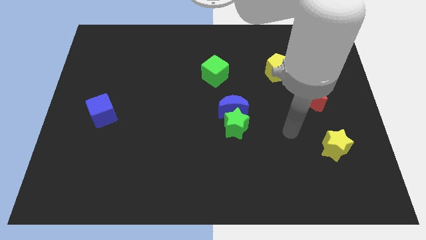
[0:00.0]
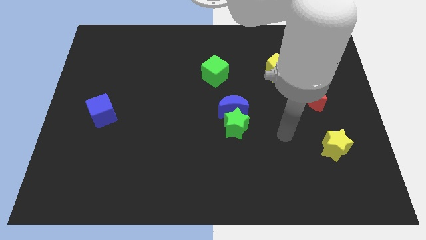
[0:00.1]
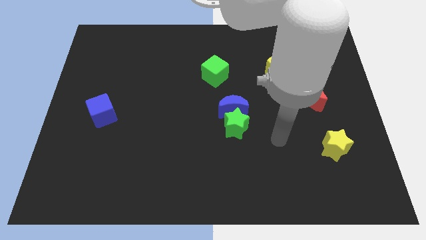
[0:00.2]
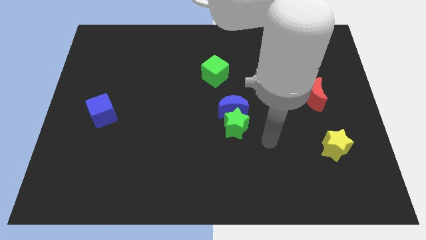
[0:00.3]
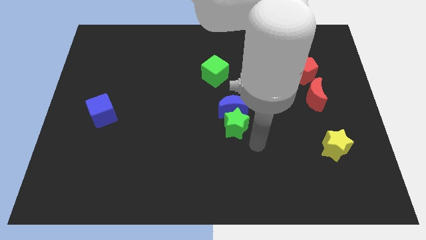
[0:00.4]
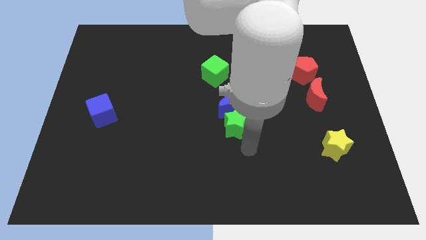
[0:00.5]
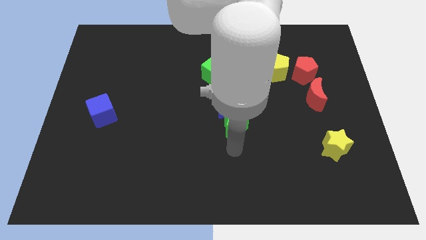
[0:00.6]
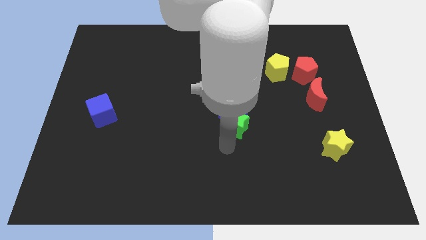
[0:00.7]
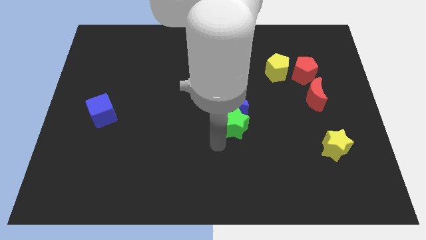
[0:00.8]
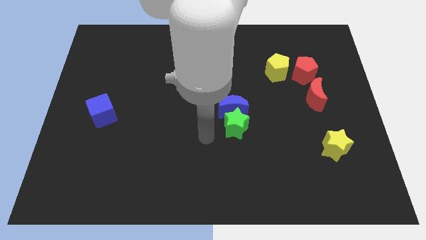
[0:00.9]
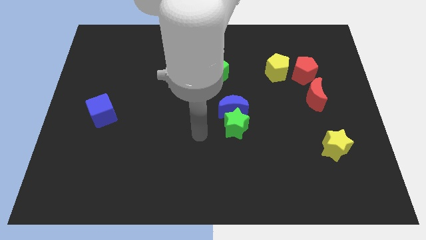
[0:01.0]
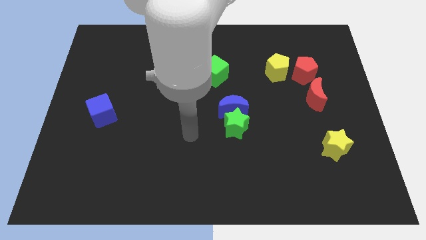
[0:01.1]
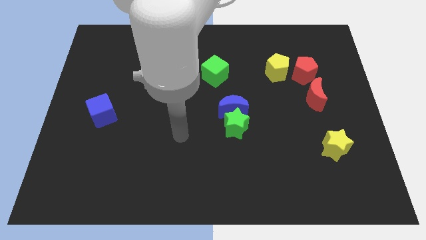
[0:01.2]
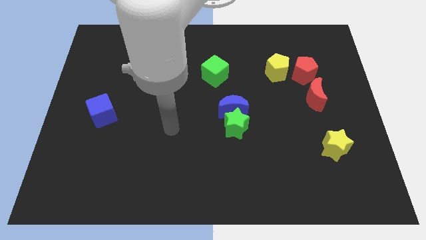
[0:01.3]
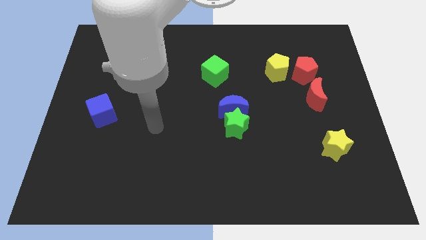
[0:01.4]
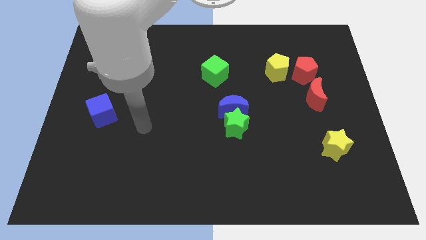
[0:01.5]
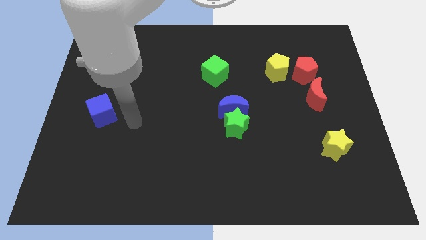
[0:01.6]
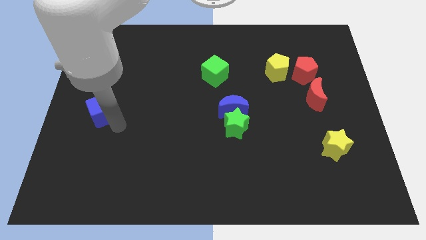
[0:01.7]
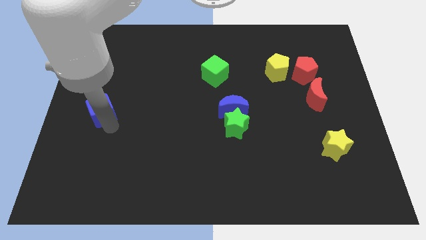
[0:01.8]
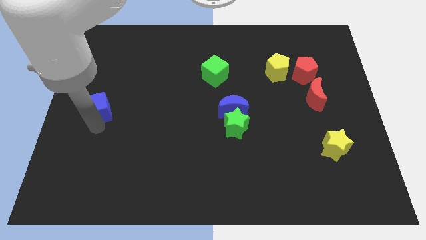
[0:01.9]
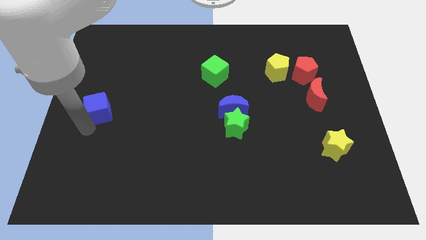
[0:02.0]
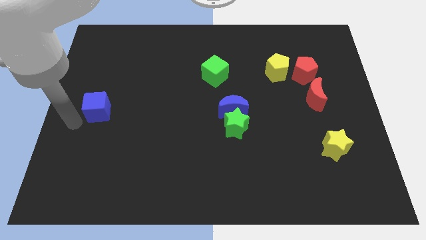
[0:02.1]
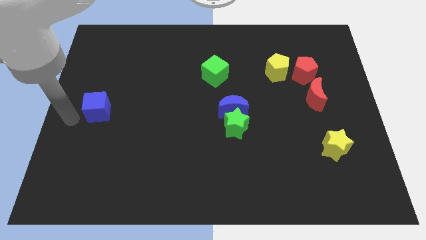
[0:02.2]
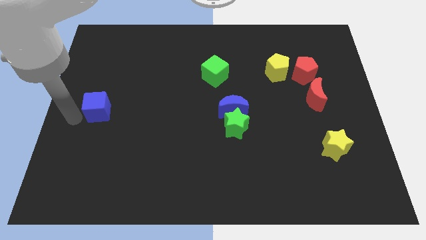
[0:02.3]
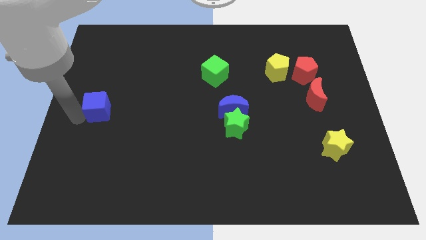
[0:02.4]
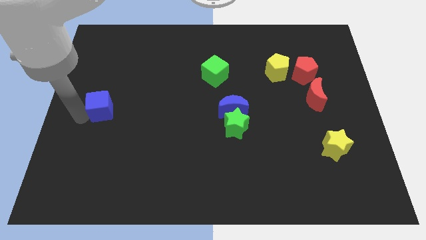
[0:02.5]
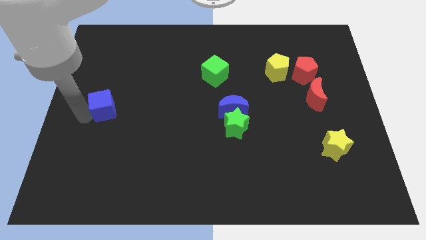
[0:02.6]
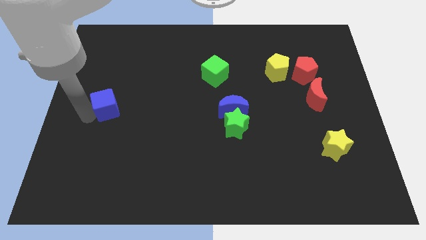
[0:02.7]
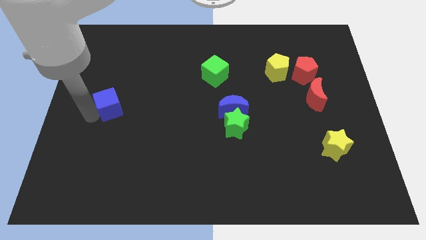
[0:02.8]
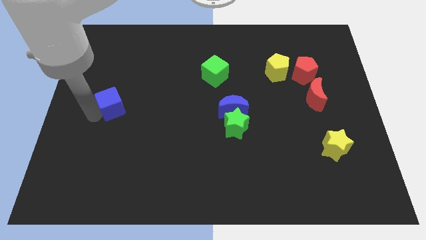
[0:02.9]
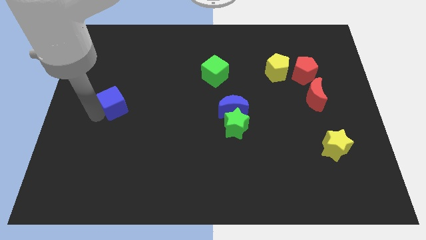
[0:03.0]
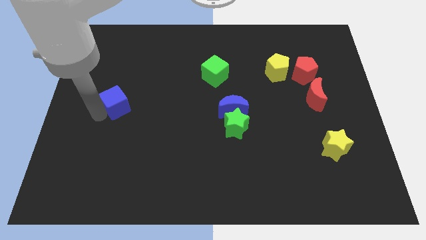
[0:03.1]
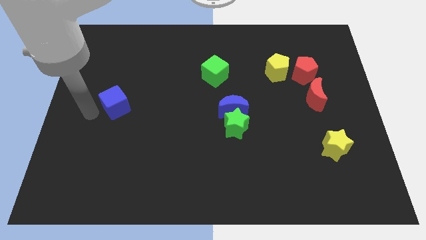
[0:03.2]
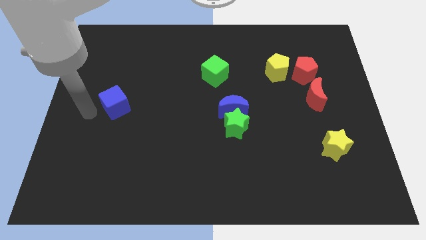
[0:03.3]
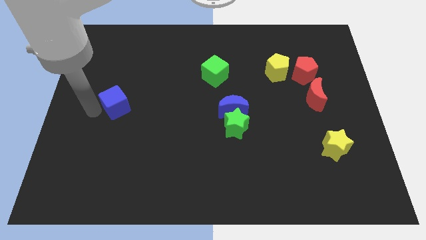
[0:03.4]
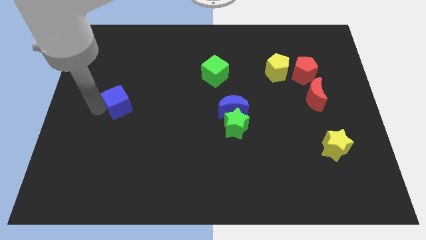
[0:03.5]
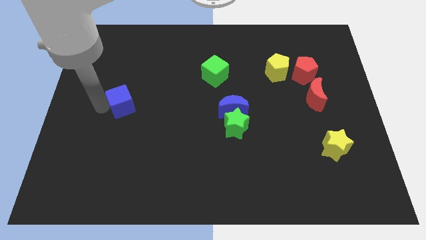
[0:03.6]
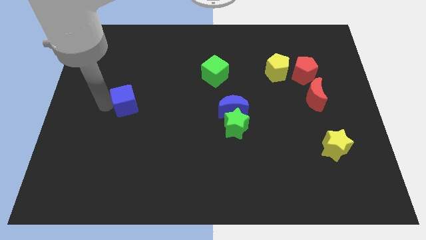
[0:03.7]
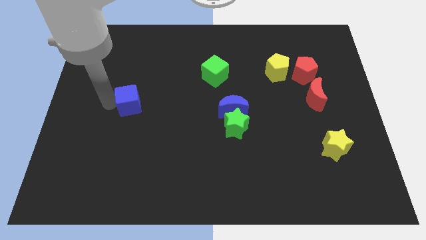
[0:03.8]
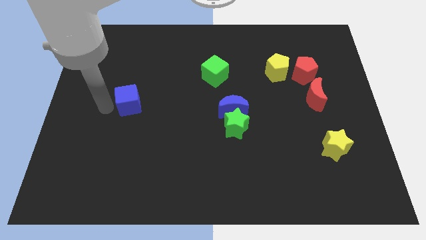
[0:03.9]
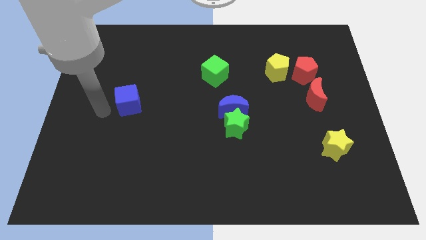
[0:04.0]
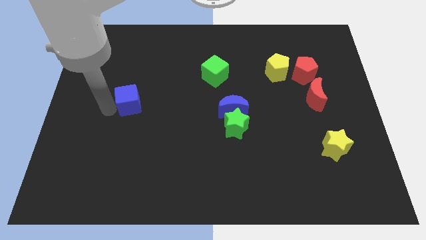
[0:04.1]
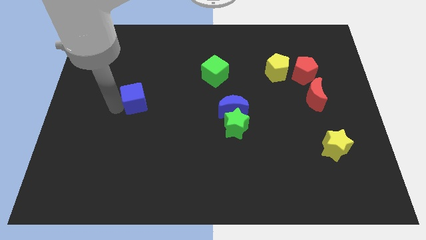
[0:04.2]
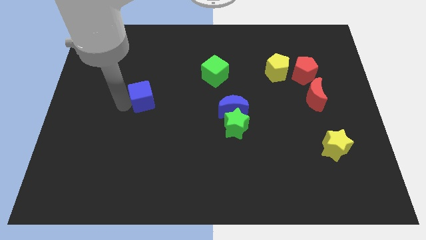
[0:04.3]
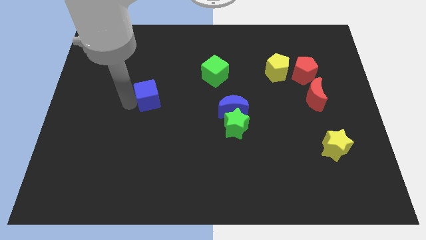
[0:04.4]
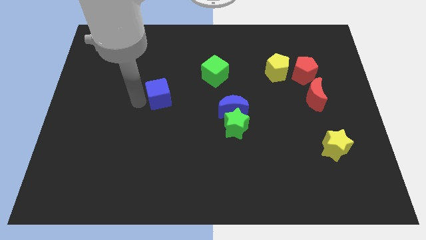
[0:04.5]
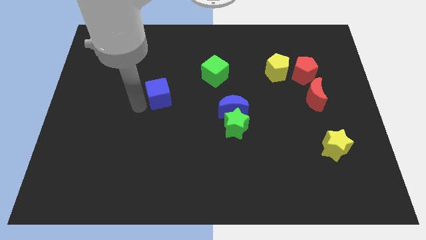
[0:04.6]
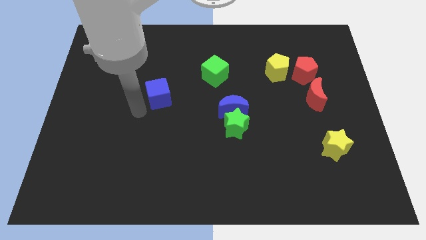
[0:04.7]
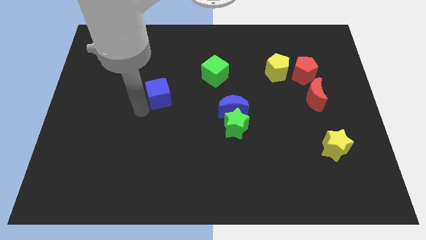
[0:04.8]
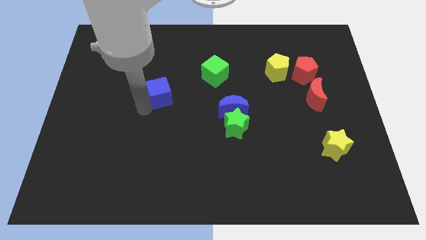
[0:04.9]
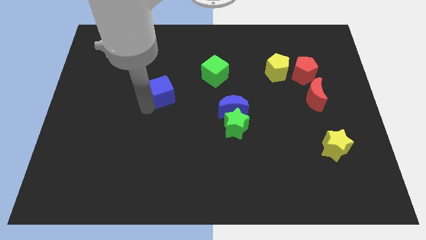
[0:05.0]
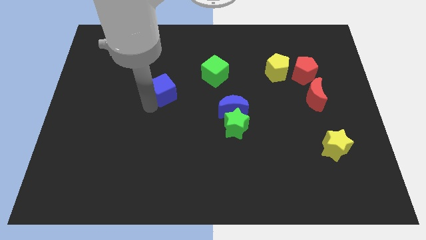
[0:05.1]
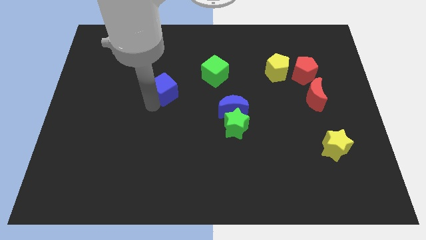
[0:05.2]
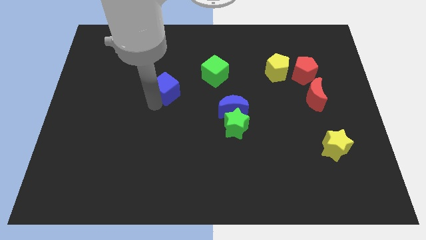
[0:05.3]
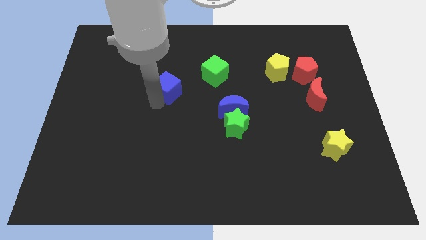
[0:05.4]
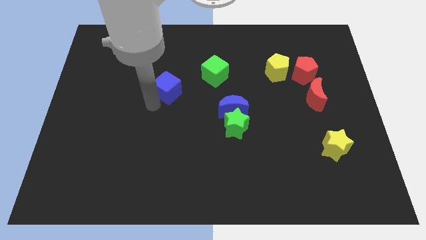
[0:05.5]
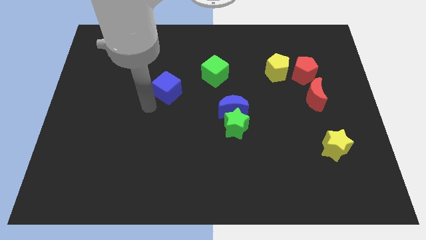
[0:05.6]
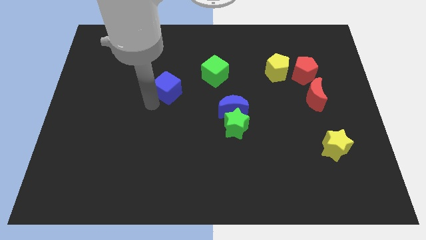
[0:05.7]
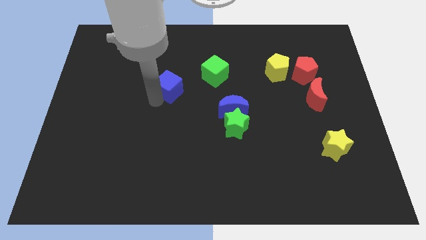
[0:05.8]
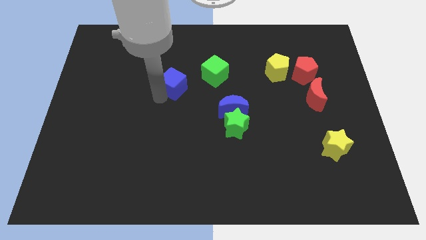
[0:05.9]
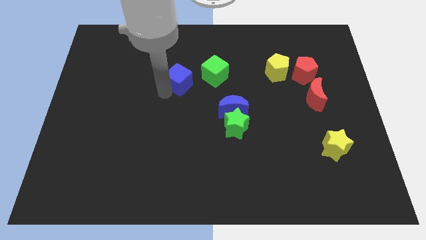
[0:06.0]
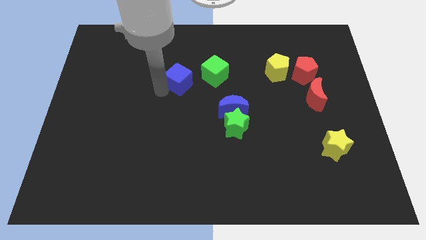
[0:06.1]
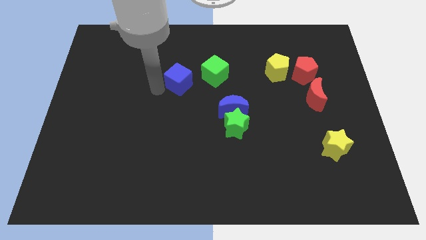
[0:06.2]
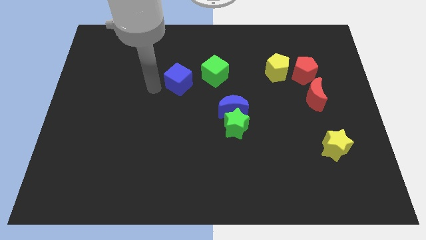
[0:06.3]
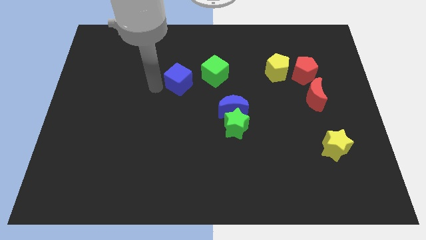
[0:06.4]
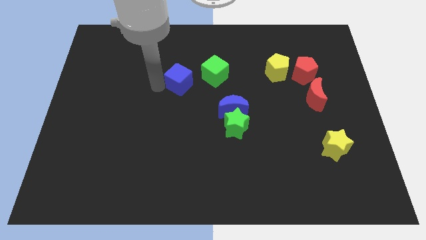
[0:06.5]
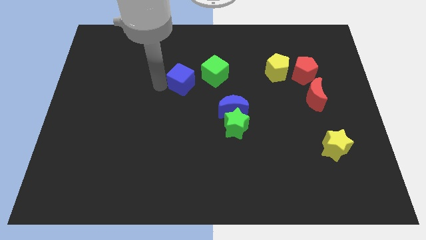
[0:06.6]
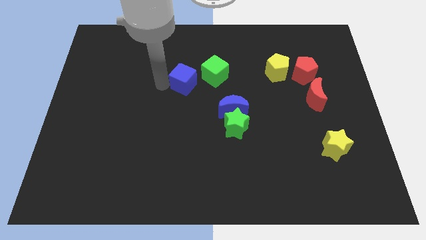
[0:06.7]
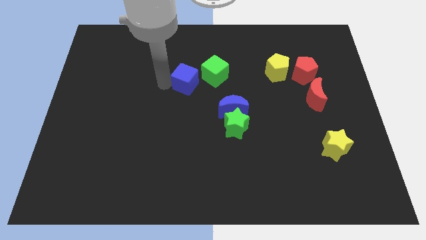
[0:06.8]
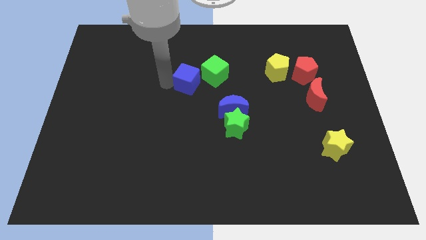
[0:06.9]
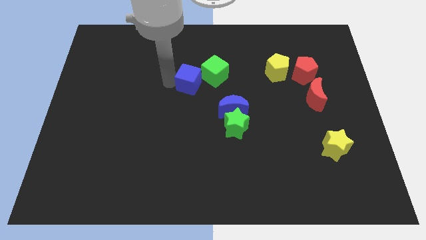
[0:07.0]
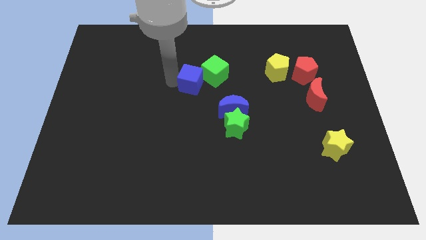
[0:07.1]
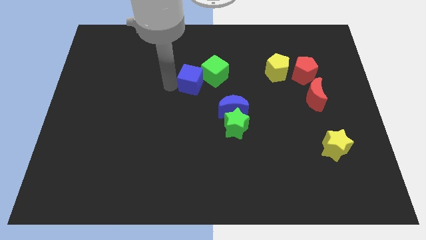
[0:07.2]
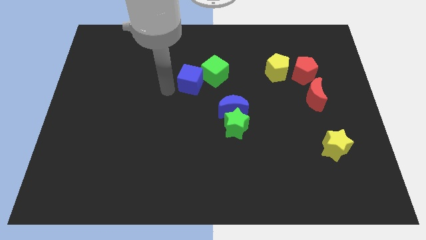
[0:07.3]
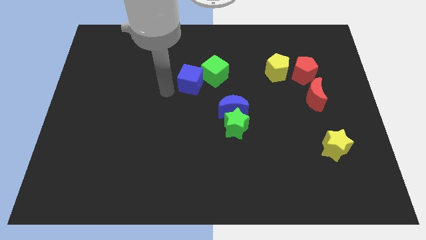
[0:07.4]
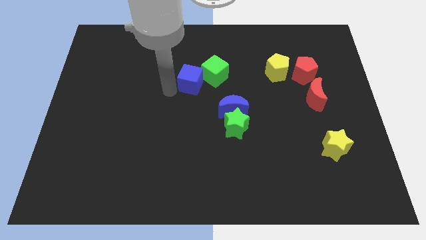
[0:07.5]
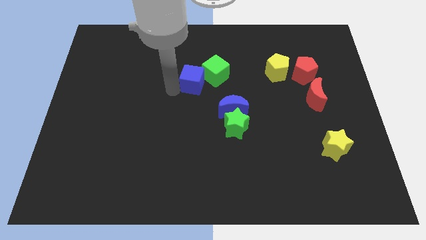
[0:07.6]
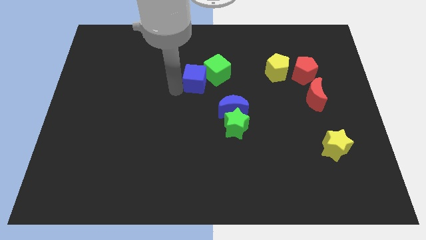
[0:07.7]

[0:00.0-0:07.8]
slide the blue cube to the green cube
